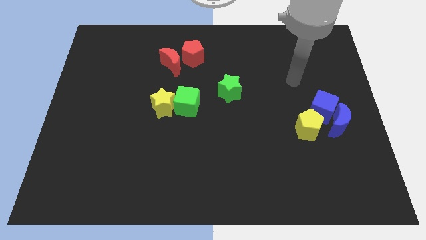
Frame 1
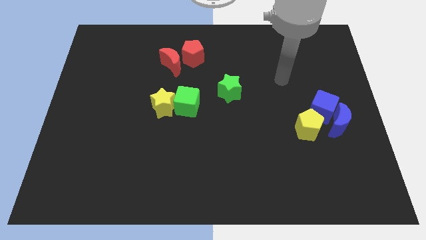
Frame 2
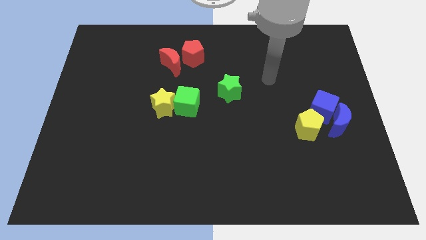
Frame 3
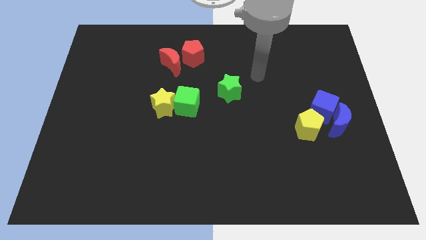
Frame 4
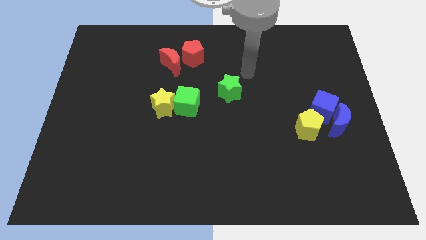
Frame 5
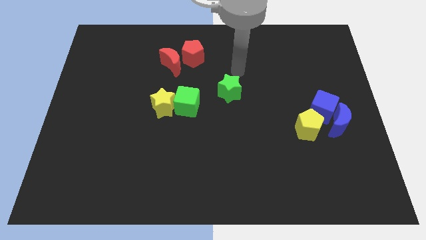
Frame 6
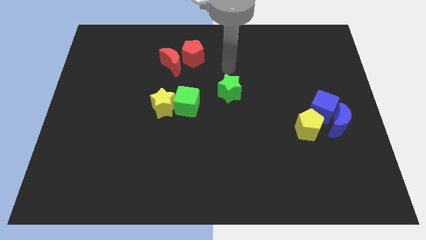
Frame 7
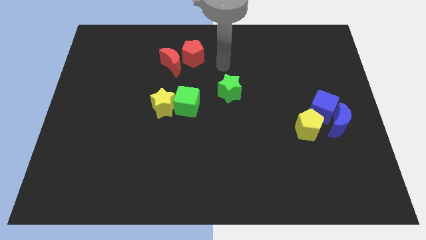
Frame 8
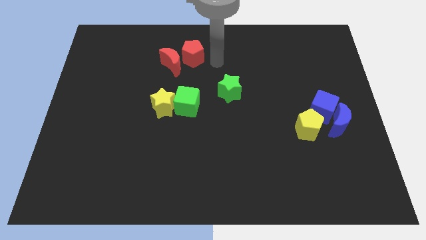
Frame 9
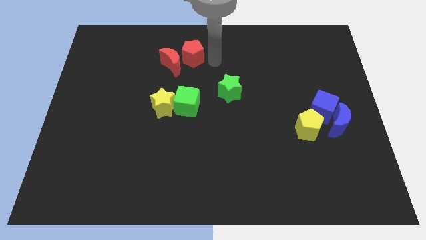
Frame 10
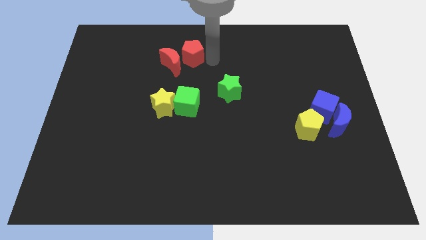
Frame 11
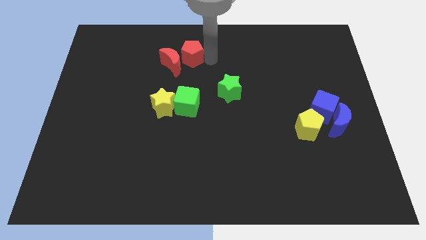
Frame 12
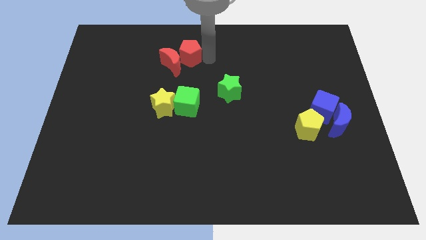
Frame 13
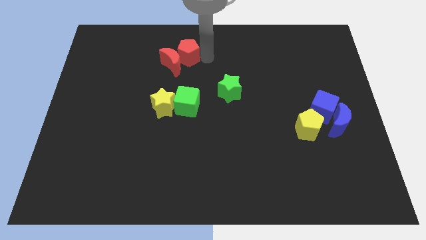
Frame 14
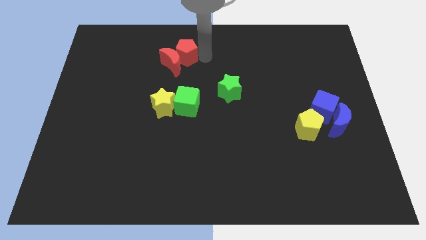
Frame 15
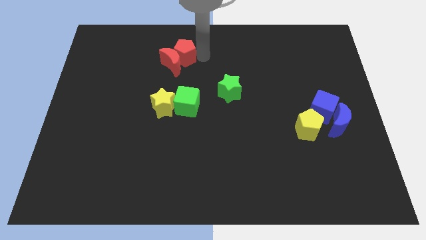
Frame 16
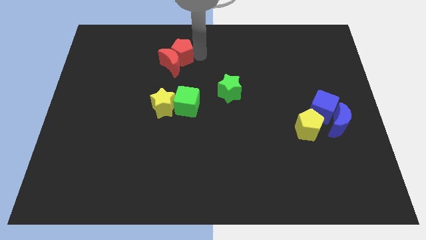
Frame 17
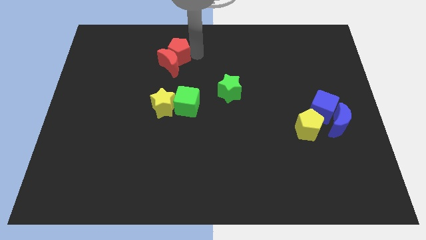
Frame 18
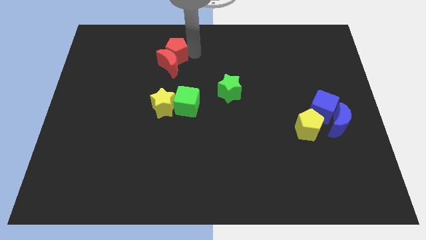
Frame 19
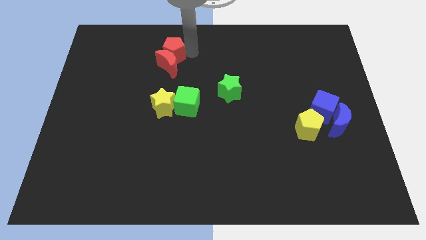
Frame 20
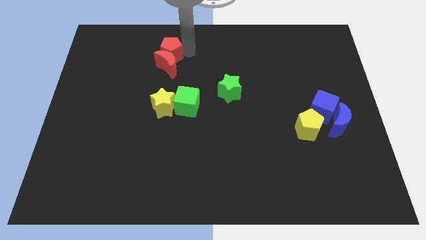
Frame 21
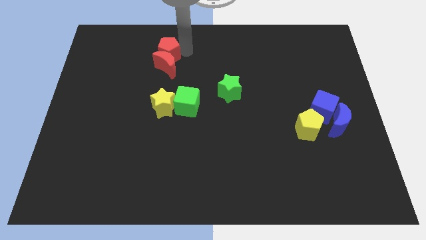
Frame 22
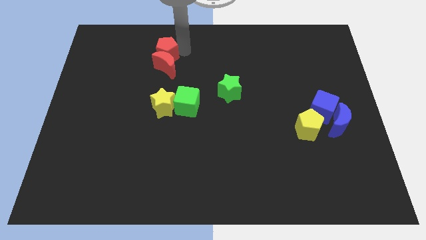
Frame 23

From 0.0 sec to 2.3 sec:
slightly move the red pentagon to the left

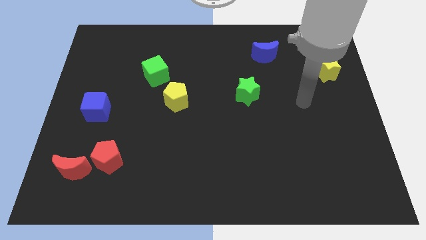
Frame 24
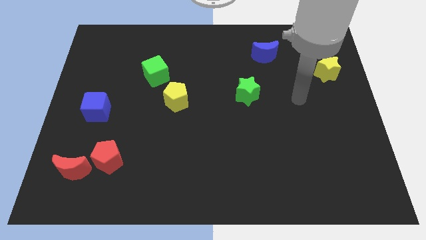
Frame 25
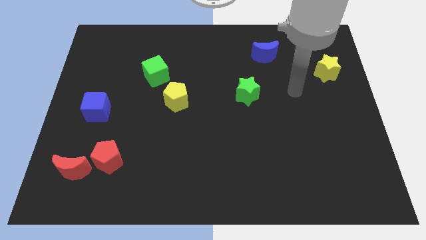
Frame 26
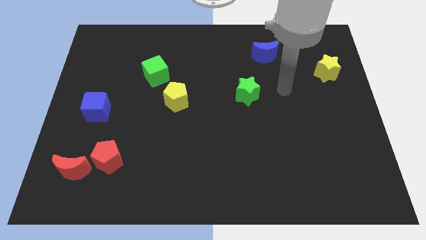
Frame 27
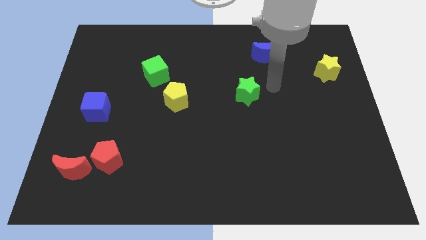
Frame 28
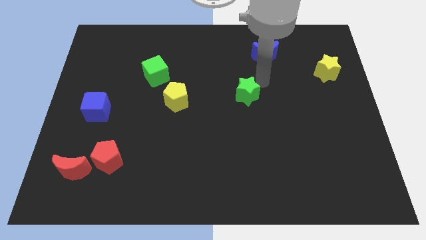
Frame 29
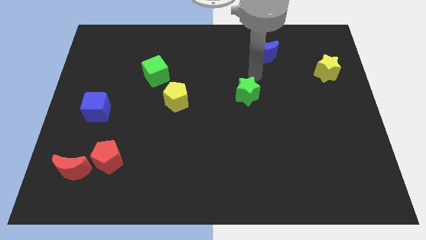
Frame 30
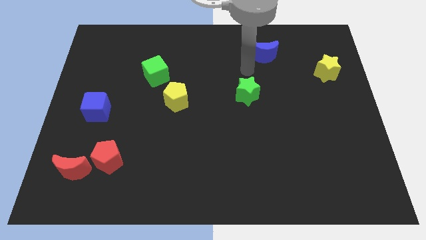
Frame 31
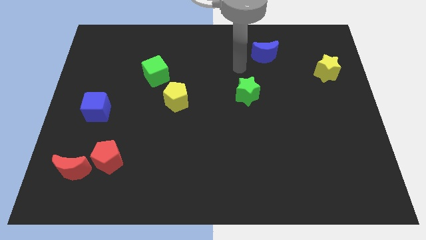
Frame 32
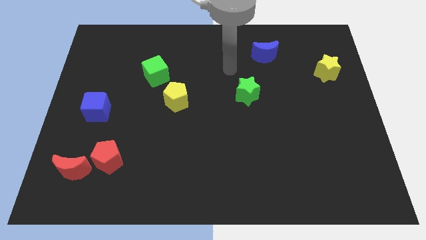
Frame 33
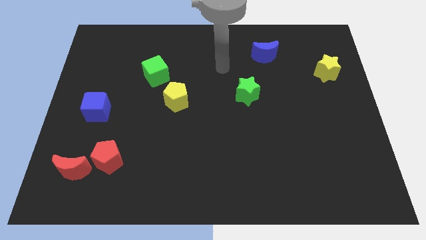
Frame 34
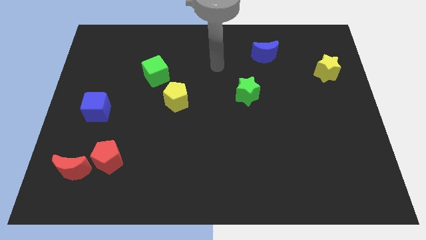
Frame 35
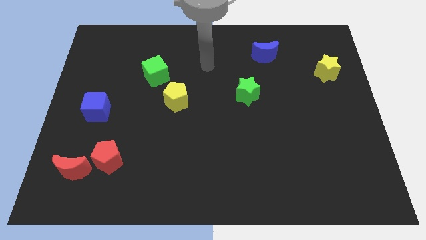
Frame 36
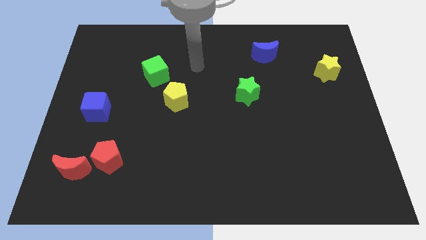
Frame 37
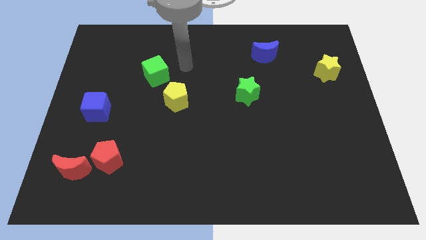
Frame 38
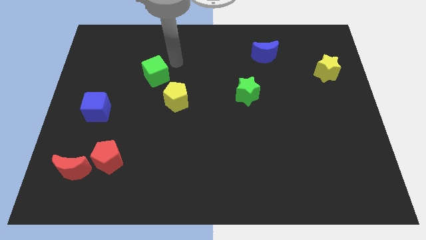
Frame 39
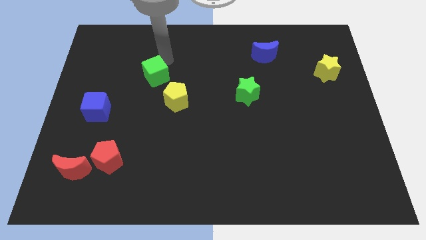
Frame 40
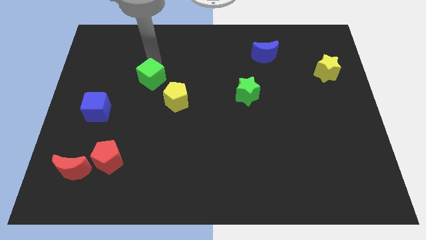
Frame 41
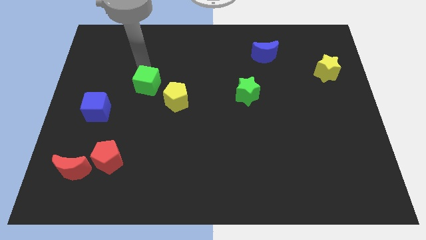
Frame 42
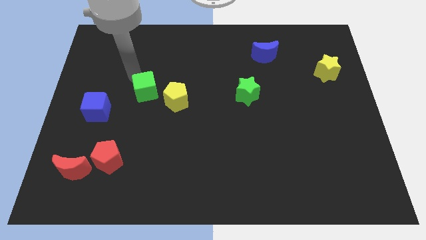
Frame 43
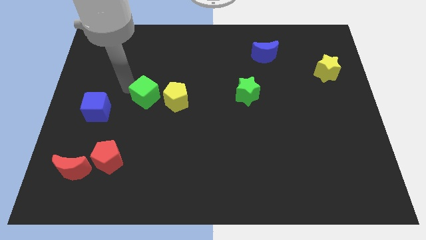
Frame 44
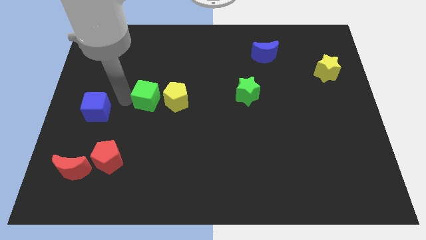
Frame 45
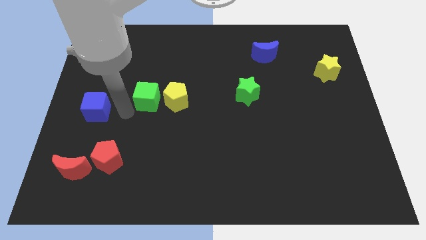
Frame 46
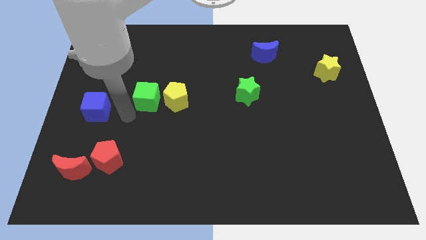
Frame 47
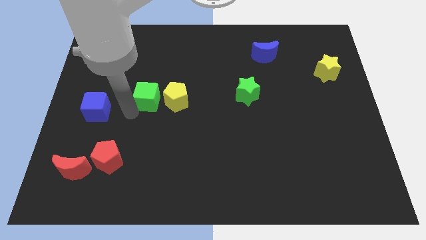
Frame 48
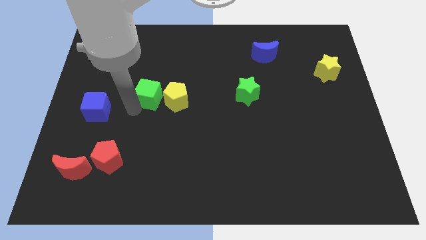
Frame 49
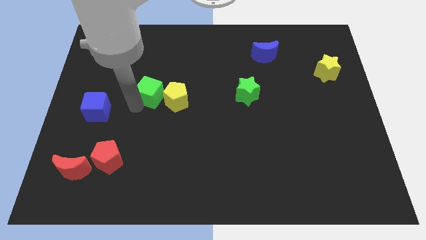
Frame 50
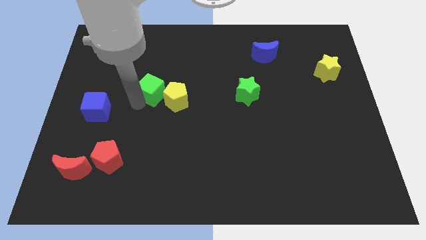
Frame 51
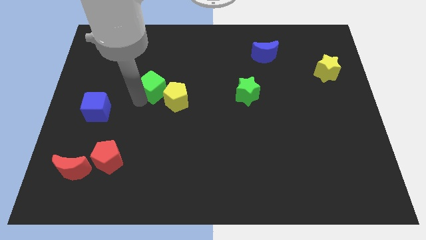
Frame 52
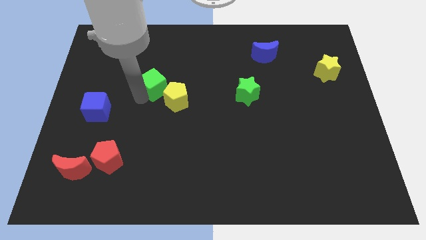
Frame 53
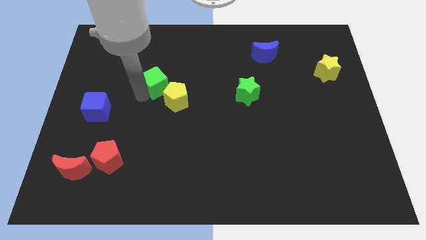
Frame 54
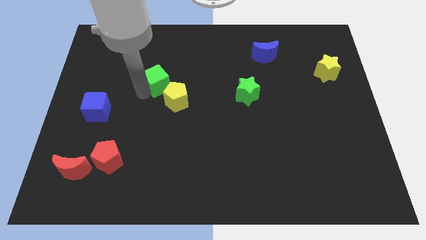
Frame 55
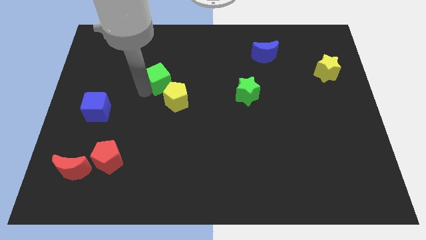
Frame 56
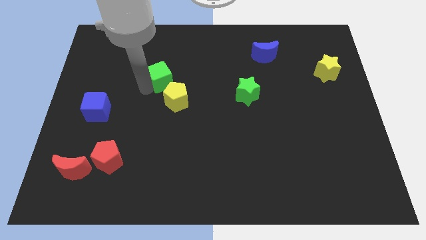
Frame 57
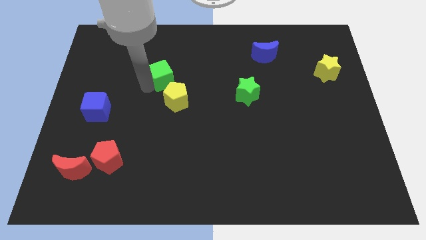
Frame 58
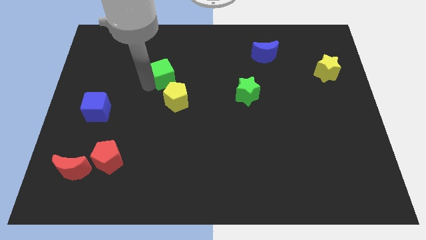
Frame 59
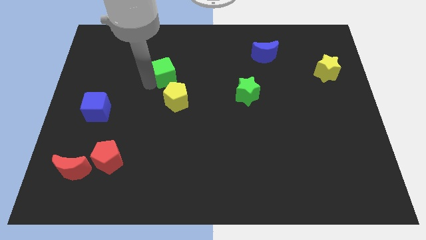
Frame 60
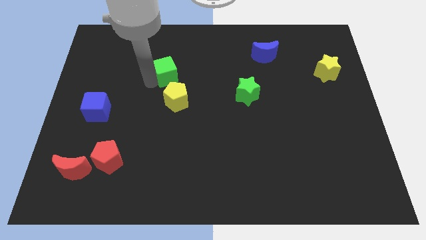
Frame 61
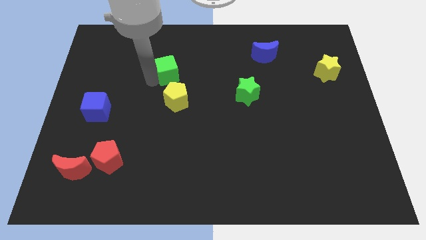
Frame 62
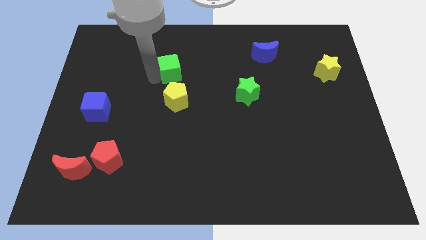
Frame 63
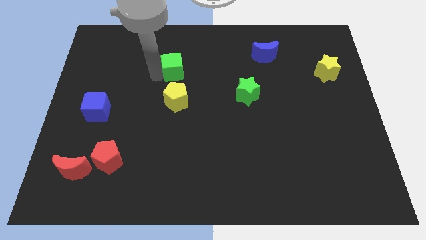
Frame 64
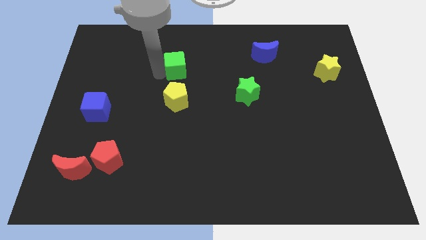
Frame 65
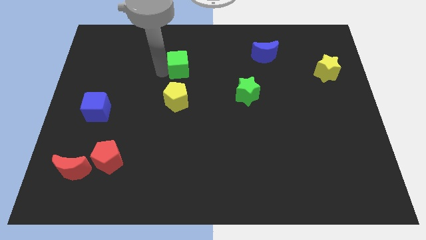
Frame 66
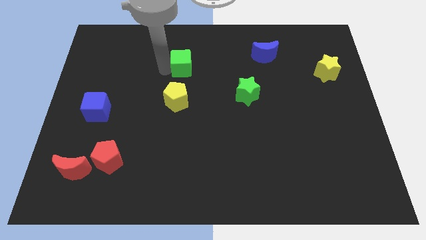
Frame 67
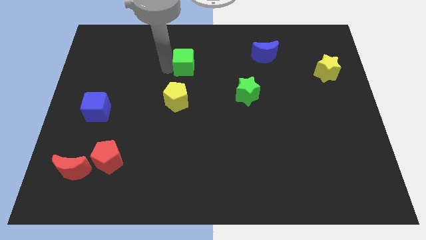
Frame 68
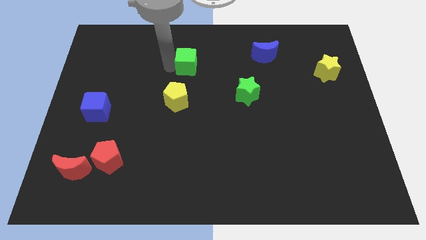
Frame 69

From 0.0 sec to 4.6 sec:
slightly move the green cube to the right

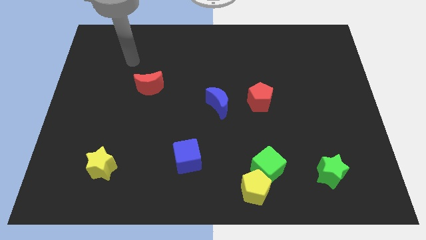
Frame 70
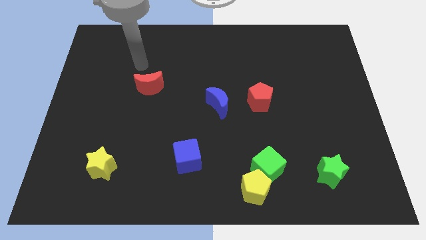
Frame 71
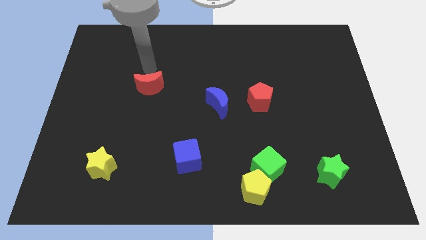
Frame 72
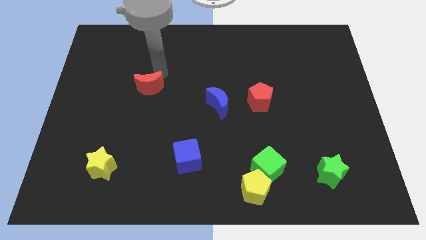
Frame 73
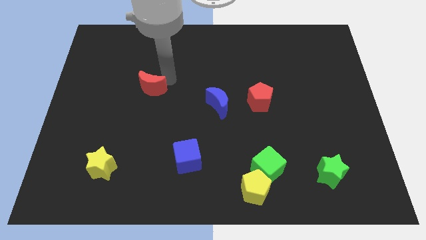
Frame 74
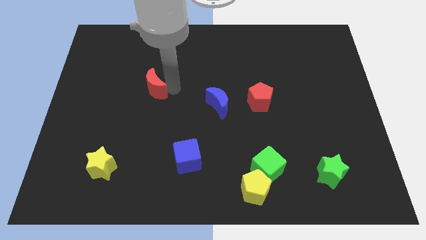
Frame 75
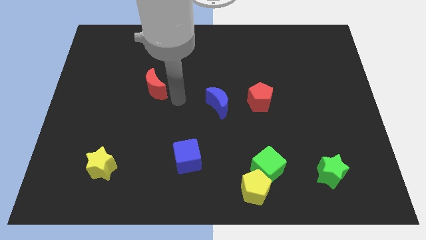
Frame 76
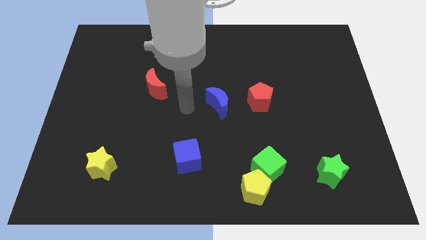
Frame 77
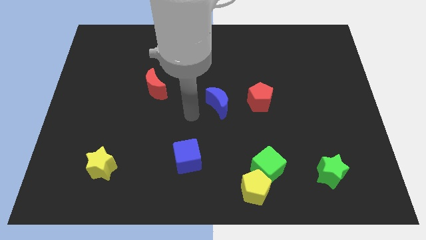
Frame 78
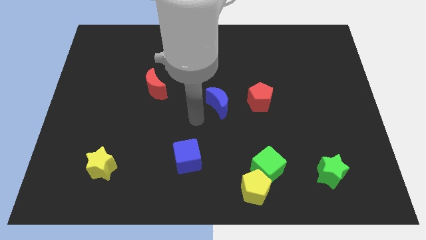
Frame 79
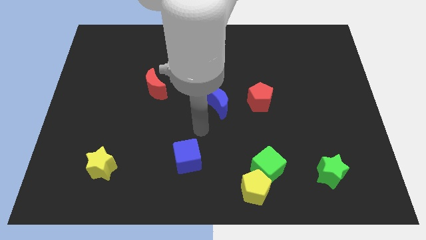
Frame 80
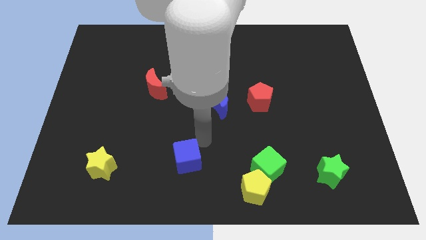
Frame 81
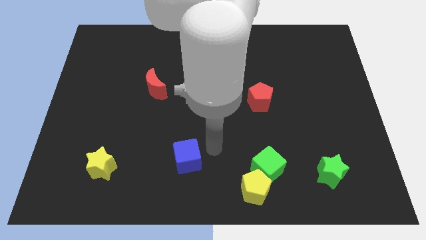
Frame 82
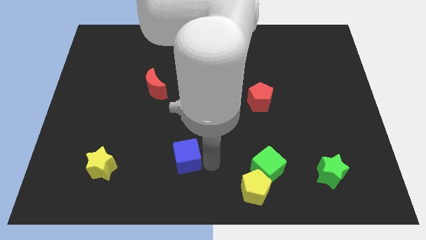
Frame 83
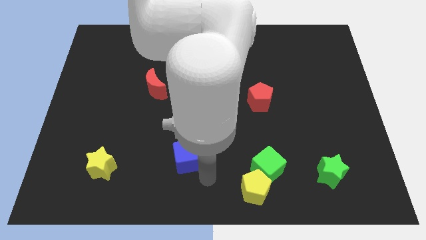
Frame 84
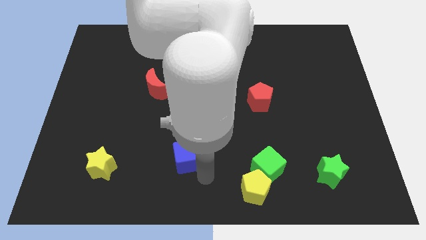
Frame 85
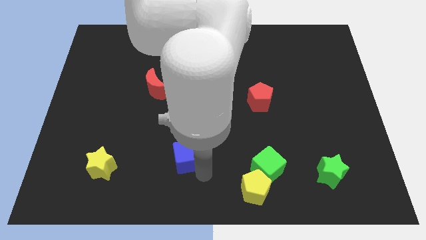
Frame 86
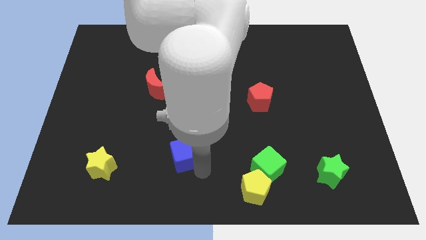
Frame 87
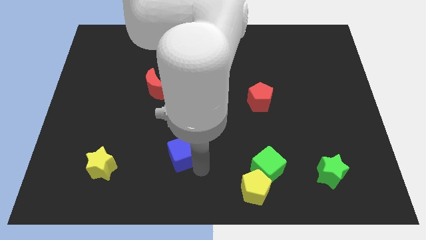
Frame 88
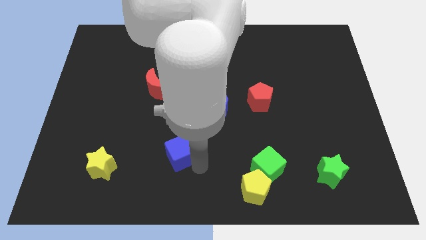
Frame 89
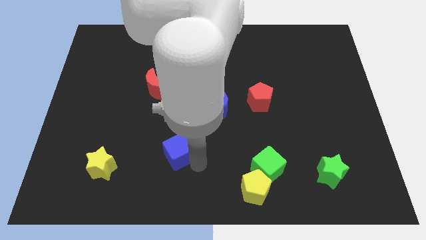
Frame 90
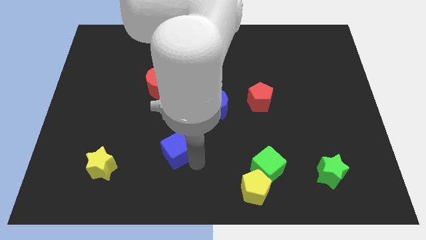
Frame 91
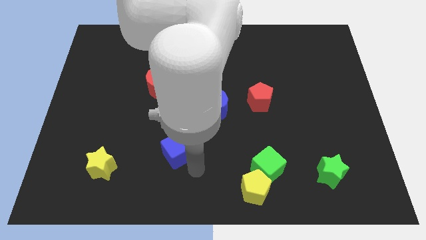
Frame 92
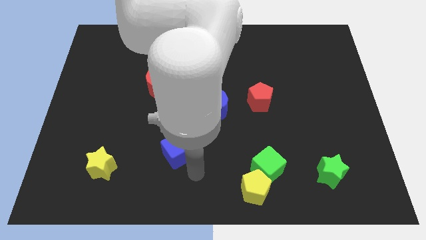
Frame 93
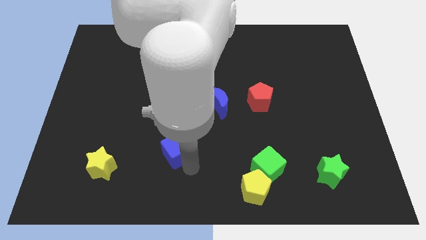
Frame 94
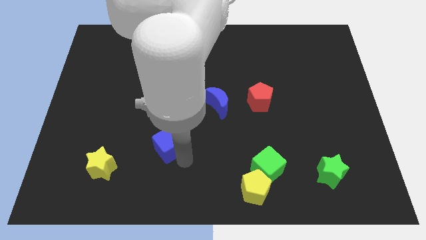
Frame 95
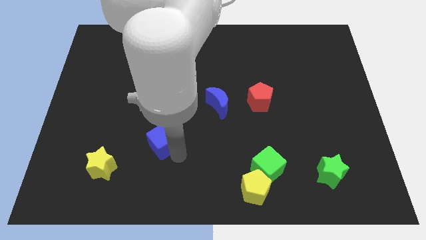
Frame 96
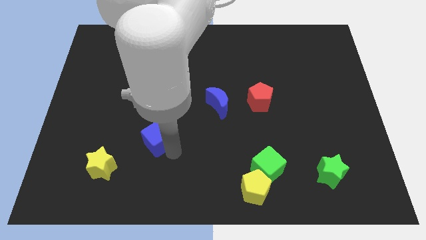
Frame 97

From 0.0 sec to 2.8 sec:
push the blue cube upwards and left slightly
